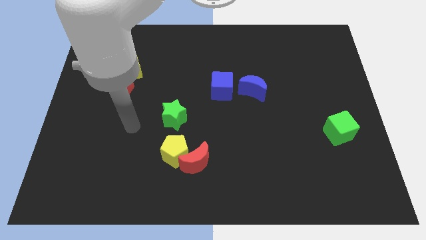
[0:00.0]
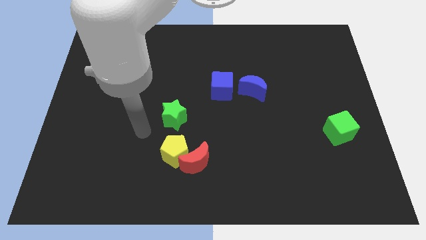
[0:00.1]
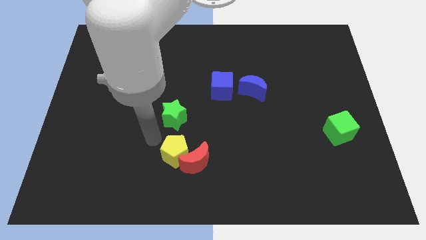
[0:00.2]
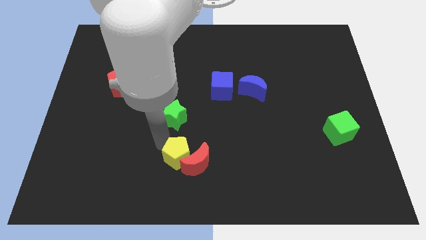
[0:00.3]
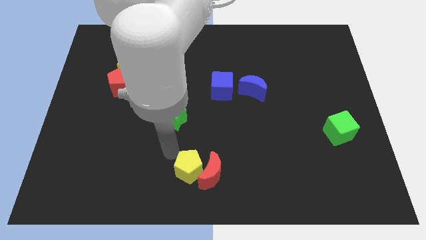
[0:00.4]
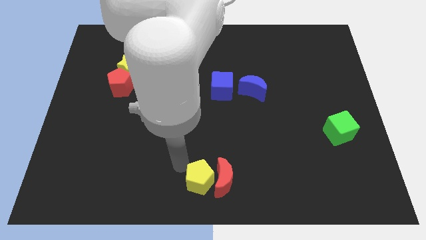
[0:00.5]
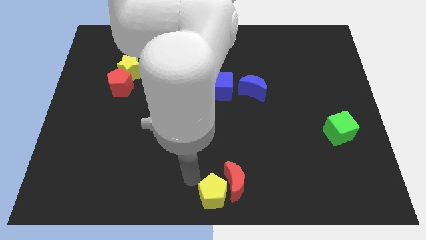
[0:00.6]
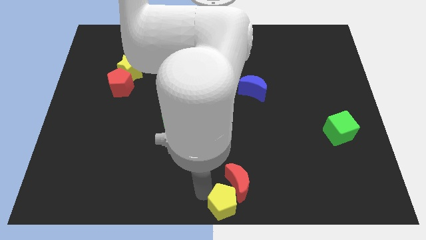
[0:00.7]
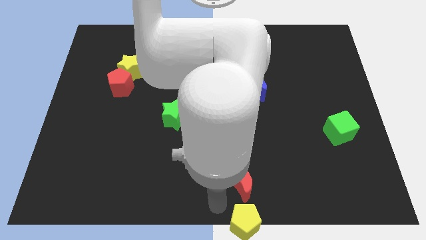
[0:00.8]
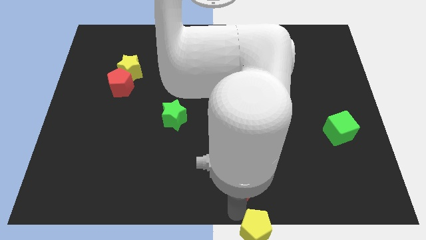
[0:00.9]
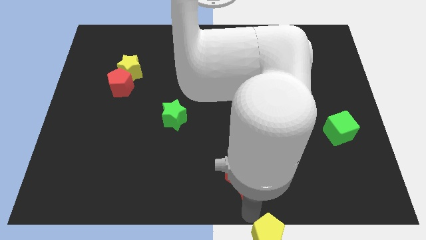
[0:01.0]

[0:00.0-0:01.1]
pull the red moon apart from the yellow pentagon

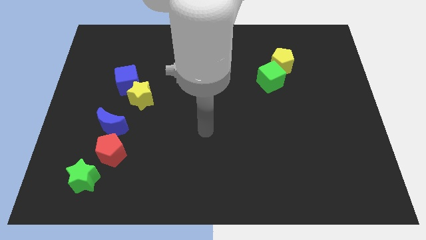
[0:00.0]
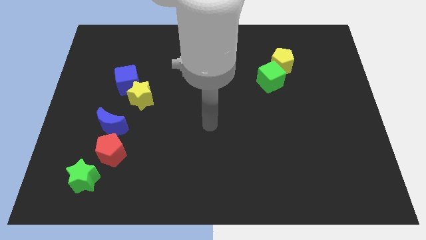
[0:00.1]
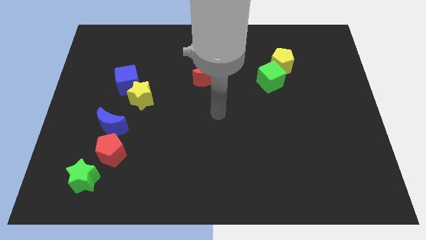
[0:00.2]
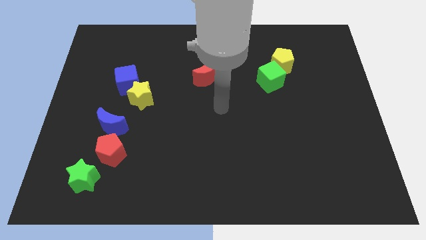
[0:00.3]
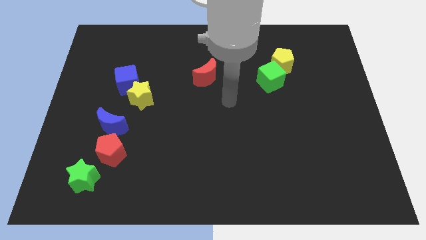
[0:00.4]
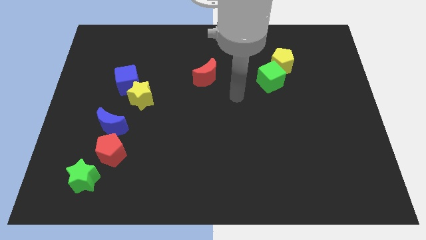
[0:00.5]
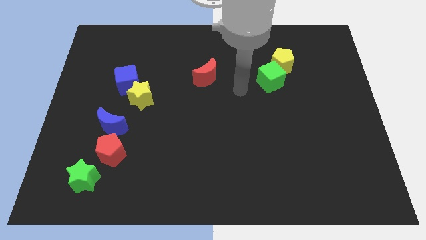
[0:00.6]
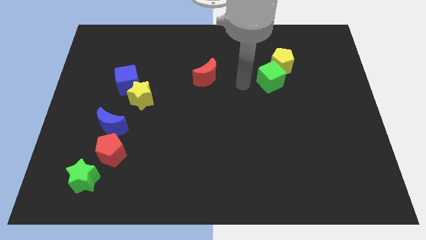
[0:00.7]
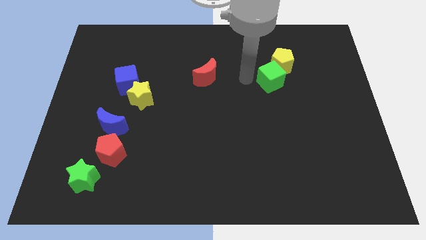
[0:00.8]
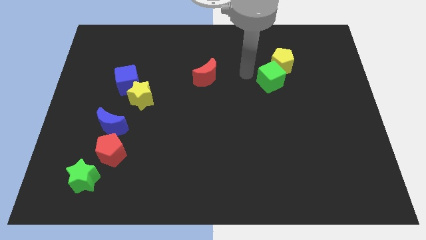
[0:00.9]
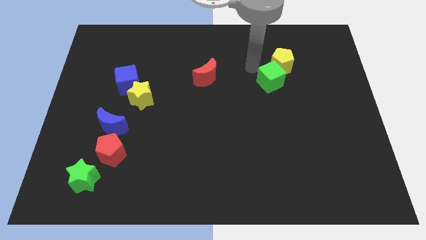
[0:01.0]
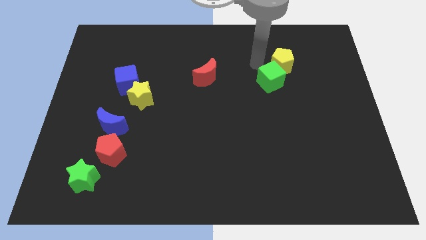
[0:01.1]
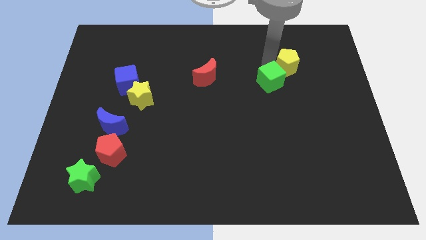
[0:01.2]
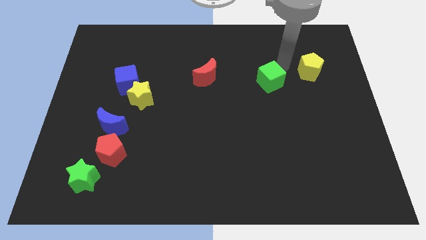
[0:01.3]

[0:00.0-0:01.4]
move the green cube away from the yellow pentagon

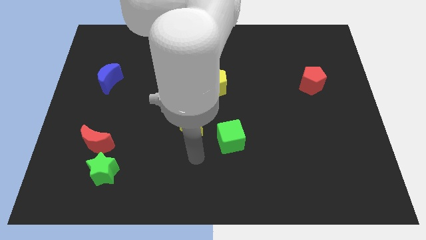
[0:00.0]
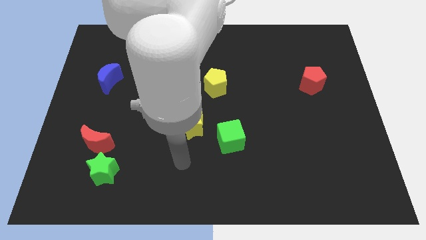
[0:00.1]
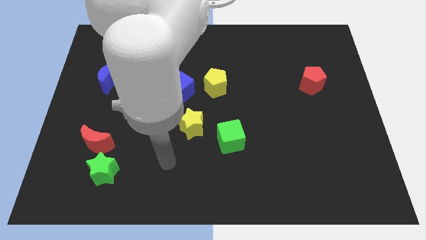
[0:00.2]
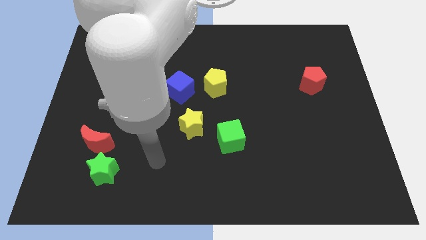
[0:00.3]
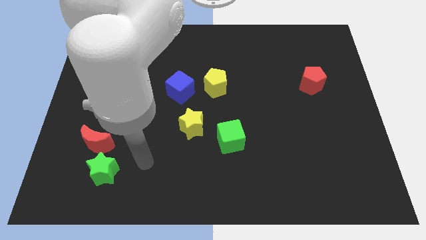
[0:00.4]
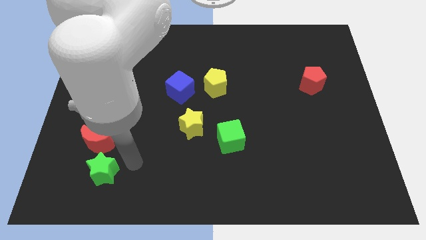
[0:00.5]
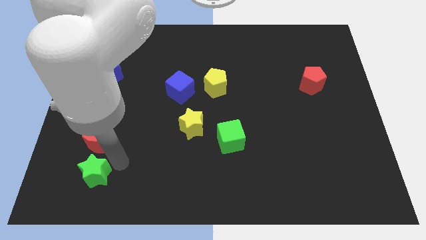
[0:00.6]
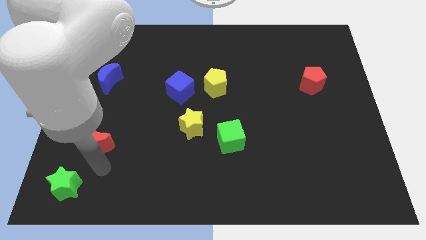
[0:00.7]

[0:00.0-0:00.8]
separate the red moon from the green star

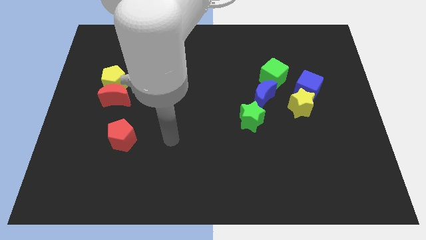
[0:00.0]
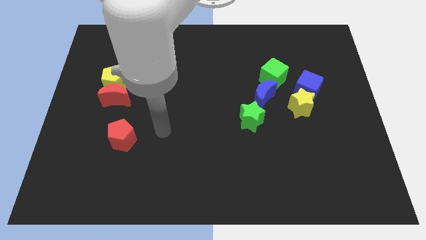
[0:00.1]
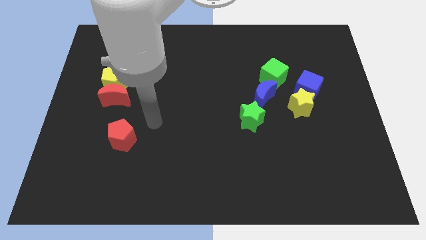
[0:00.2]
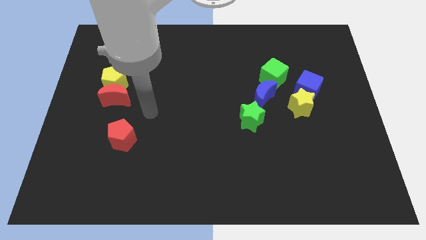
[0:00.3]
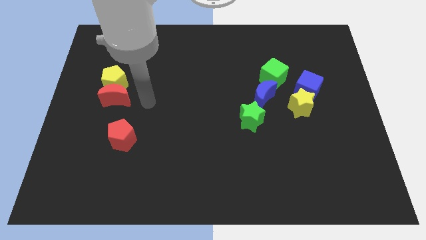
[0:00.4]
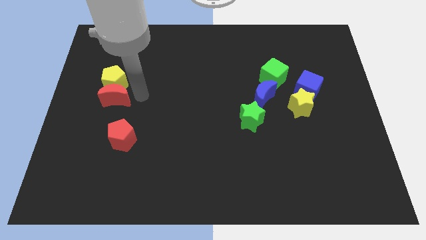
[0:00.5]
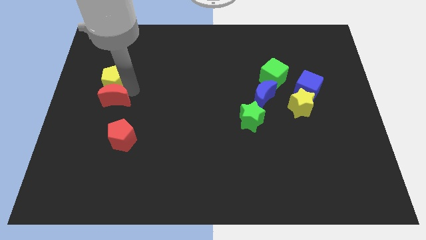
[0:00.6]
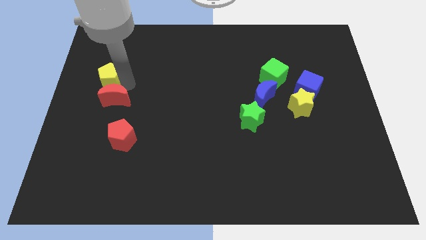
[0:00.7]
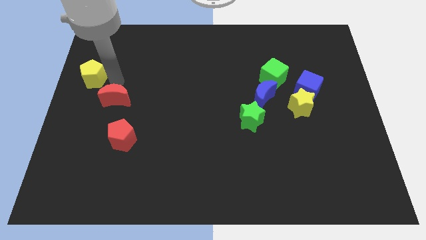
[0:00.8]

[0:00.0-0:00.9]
separate the red moon from the yellow pentagon

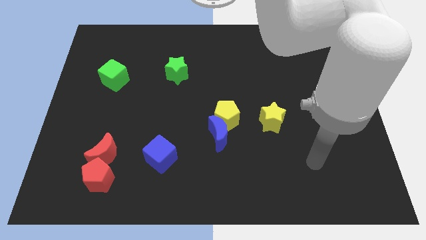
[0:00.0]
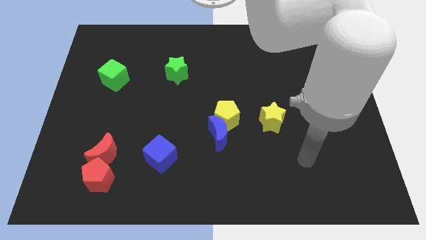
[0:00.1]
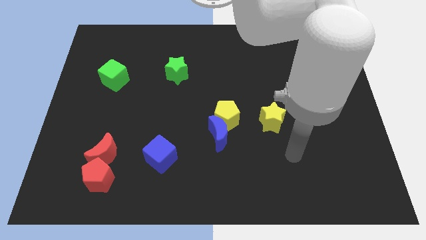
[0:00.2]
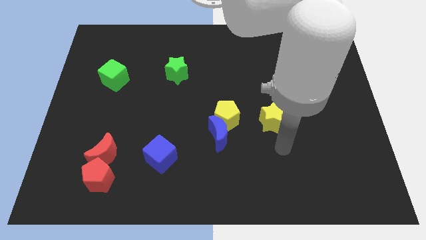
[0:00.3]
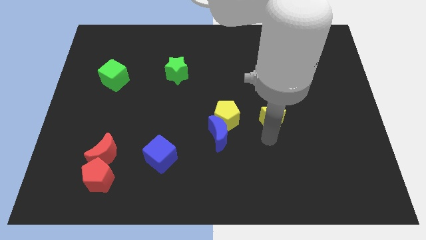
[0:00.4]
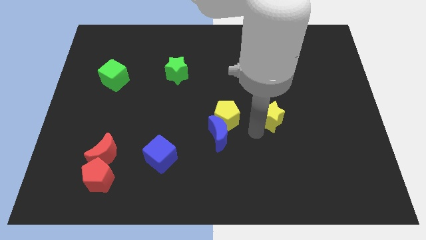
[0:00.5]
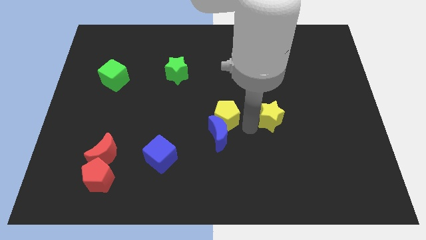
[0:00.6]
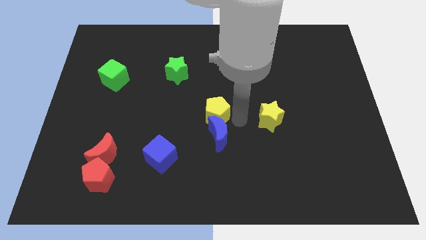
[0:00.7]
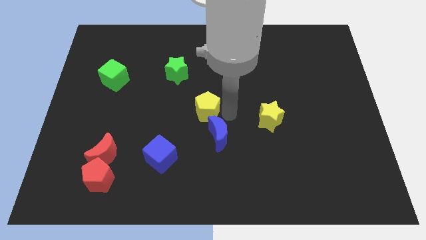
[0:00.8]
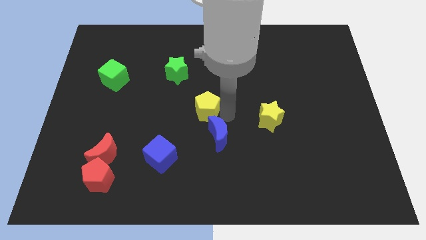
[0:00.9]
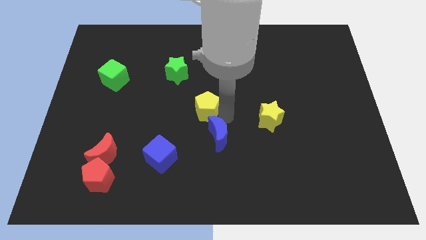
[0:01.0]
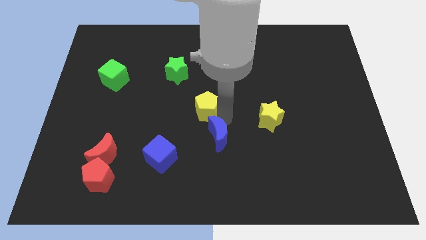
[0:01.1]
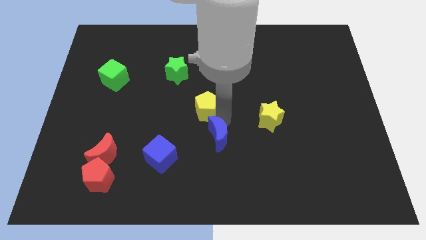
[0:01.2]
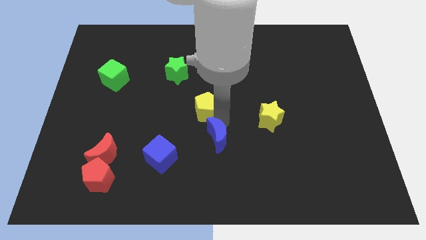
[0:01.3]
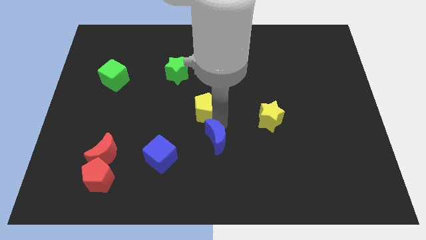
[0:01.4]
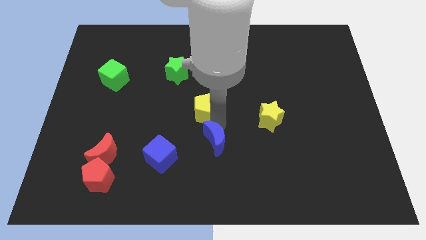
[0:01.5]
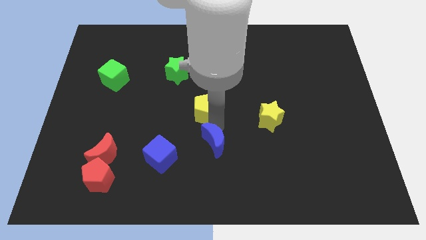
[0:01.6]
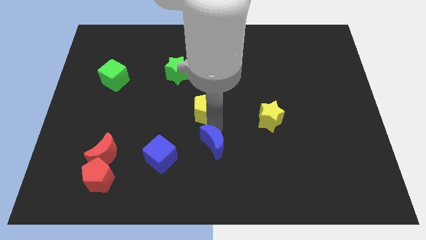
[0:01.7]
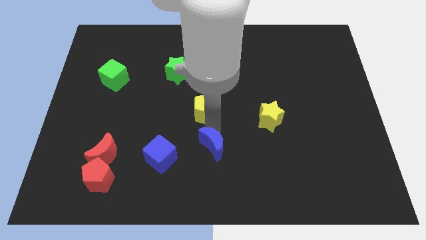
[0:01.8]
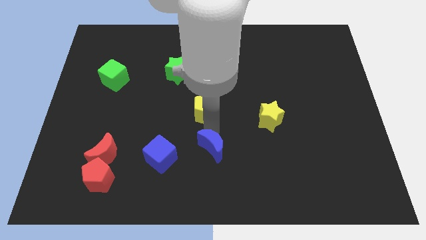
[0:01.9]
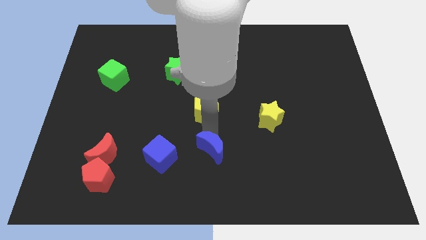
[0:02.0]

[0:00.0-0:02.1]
pull the blue moon apart from the yellow pentagon

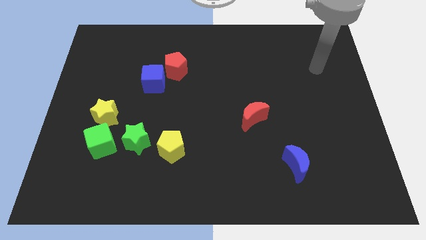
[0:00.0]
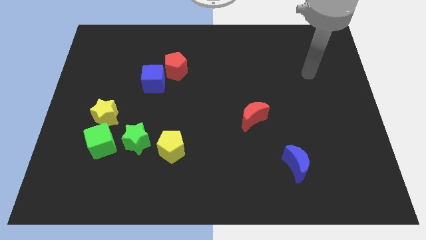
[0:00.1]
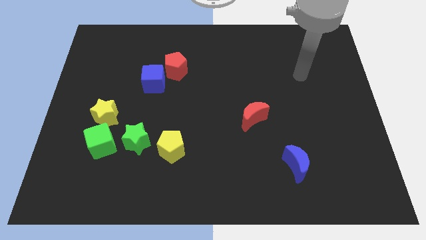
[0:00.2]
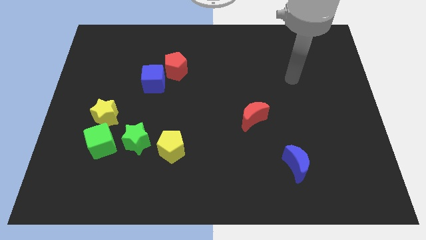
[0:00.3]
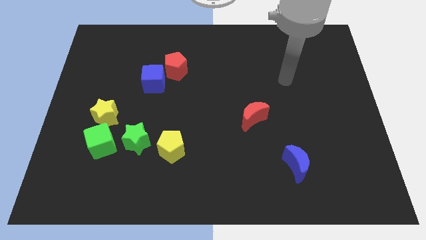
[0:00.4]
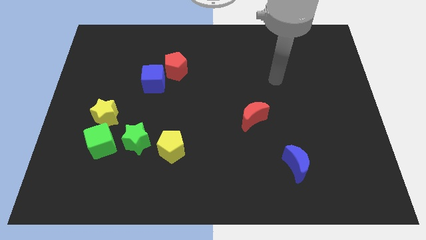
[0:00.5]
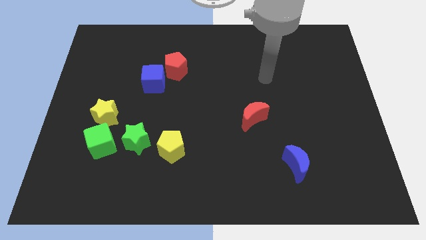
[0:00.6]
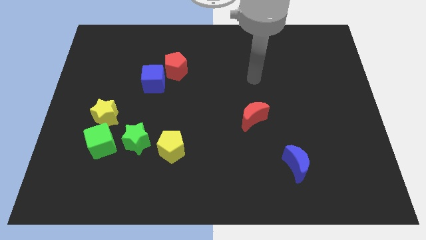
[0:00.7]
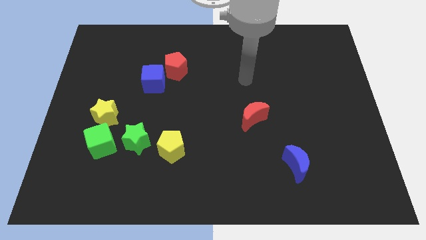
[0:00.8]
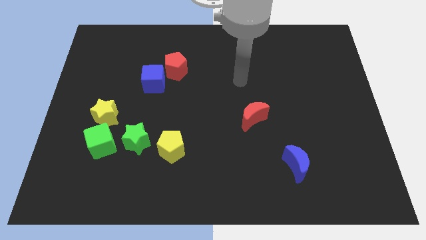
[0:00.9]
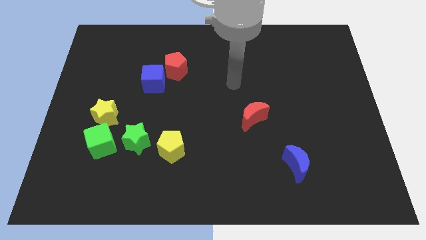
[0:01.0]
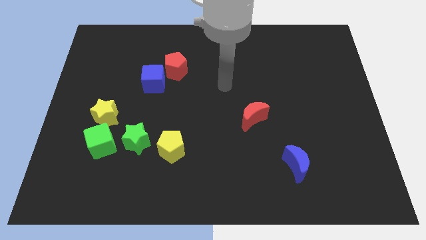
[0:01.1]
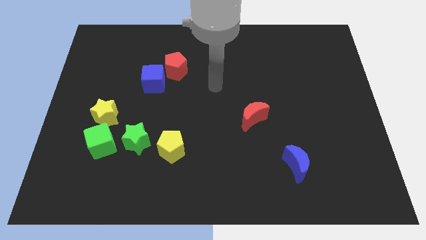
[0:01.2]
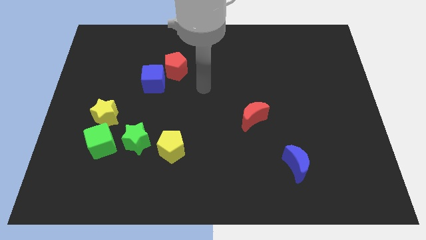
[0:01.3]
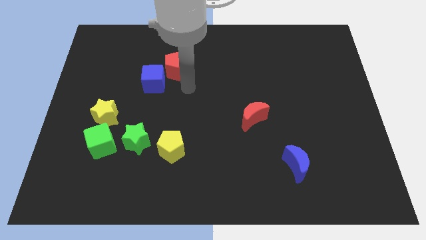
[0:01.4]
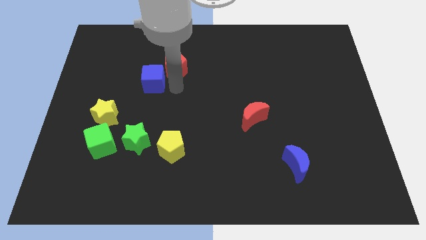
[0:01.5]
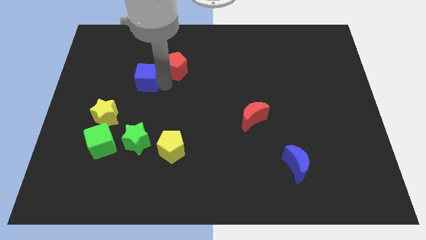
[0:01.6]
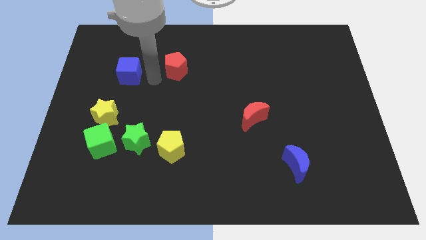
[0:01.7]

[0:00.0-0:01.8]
pull the red pentagon apart from the blue cube

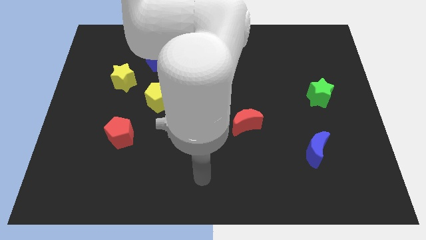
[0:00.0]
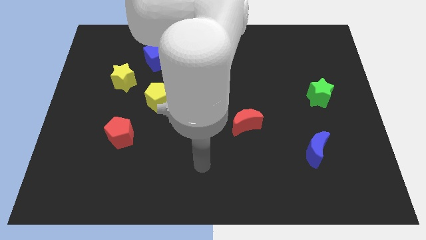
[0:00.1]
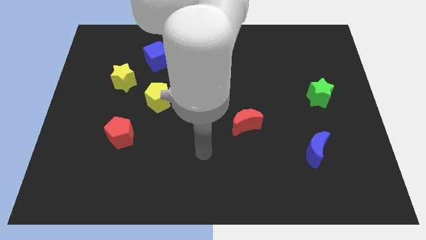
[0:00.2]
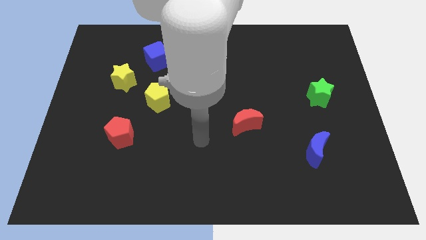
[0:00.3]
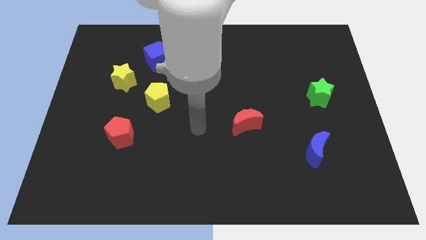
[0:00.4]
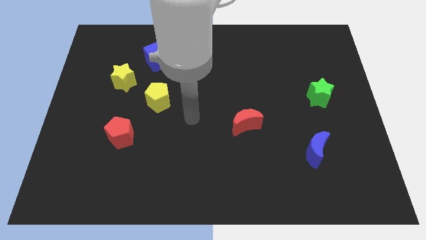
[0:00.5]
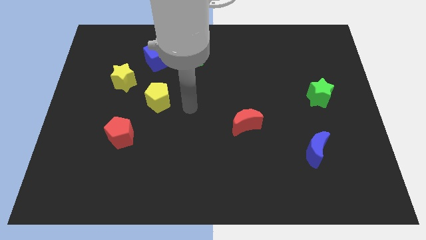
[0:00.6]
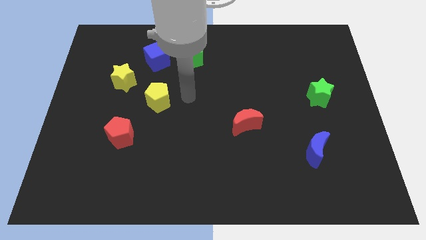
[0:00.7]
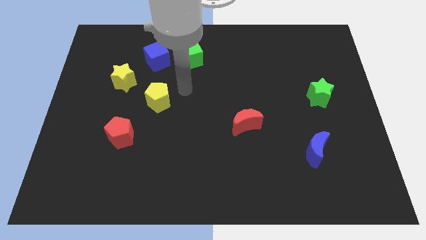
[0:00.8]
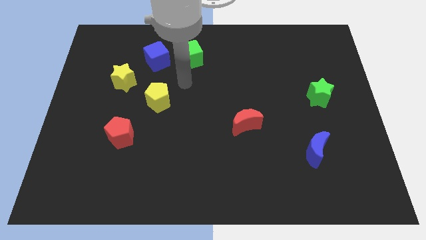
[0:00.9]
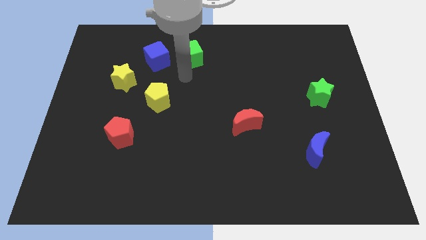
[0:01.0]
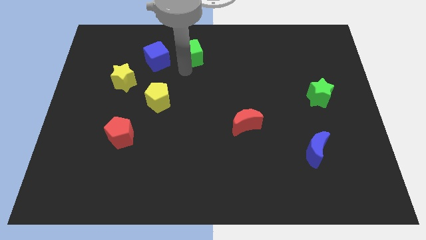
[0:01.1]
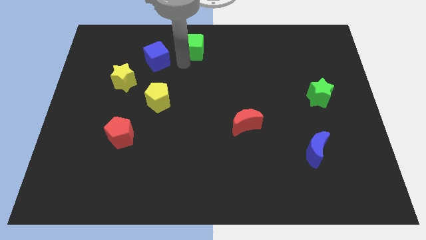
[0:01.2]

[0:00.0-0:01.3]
pull the blue cube apart from the green cube
